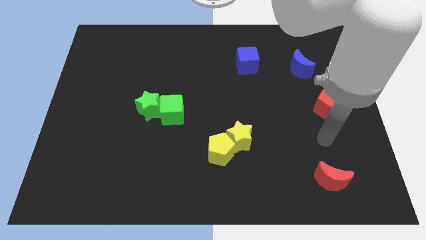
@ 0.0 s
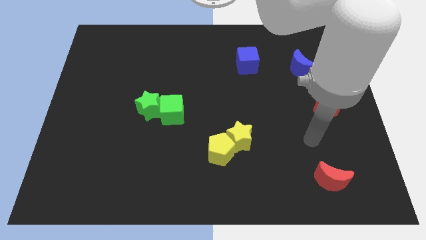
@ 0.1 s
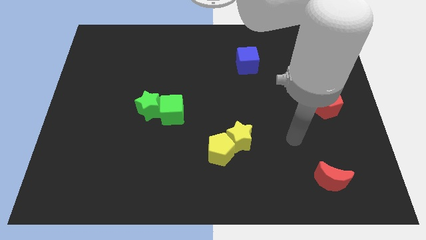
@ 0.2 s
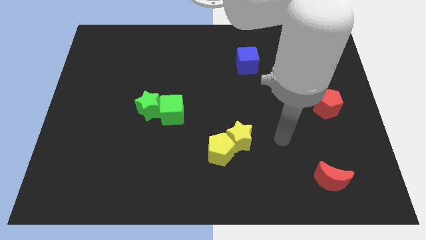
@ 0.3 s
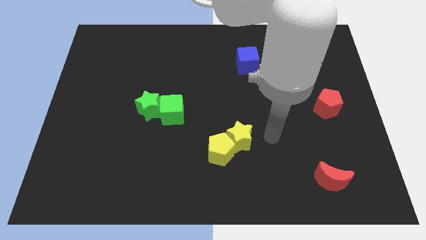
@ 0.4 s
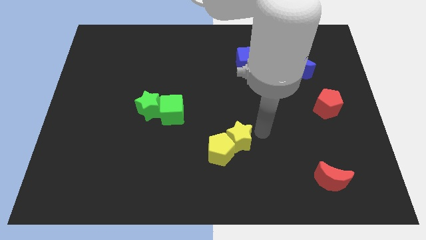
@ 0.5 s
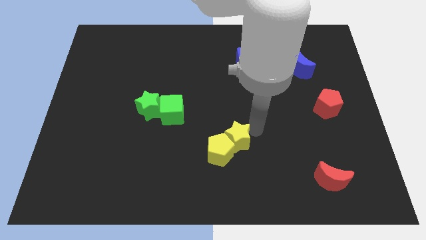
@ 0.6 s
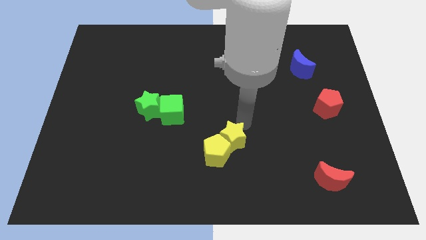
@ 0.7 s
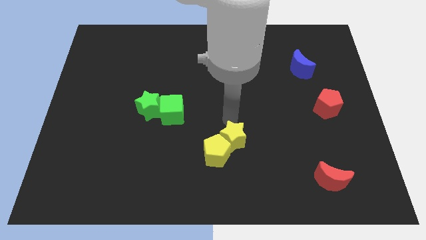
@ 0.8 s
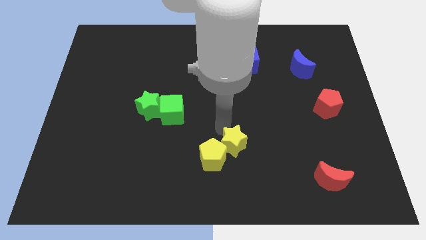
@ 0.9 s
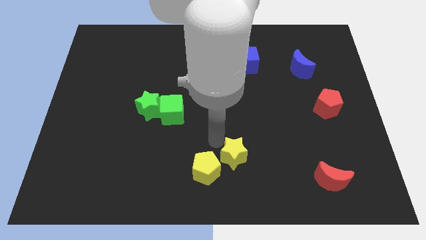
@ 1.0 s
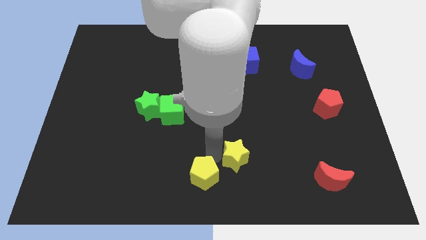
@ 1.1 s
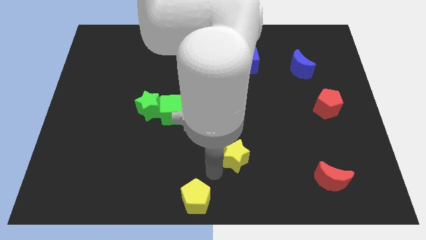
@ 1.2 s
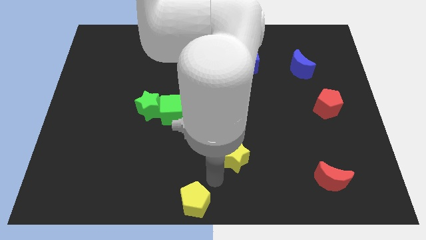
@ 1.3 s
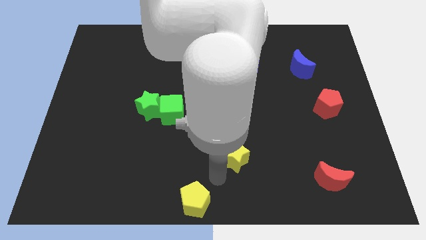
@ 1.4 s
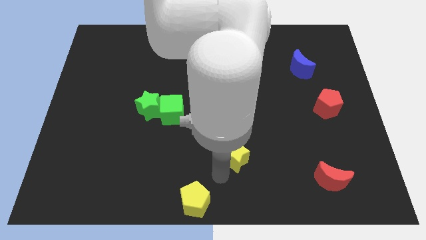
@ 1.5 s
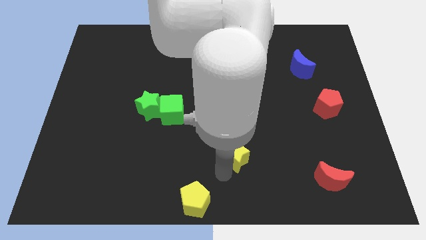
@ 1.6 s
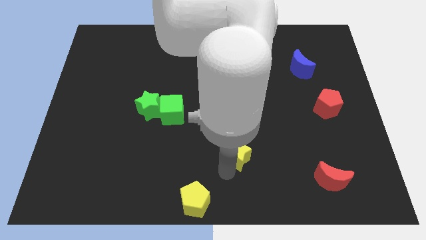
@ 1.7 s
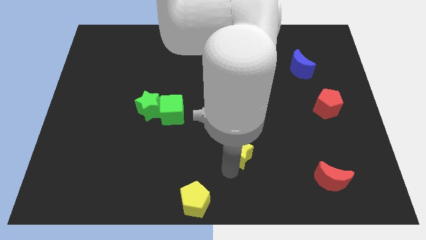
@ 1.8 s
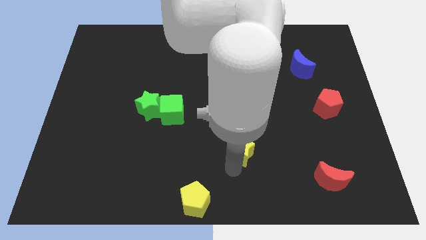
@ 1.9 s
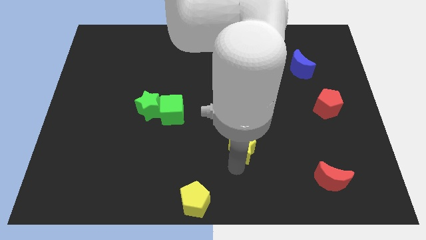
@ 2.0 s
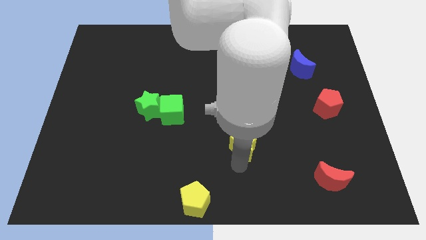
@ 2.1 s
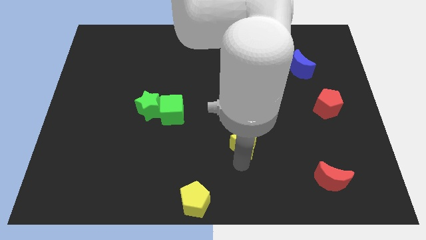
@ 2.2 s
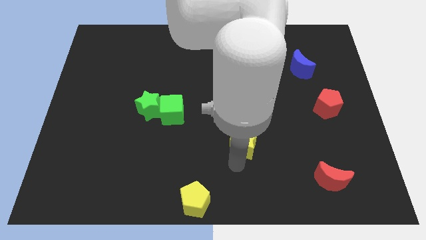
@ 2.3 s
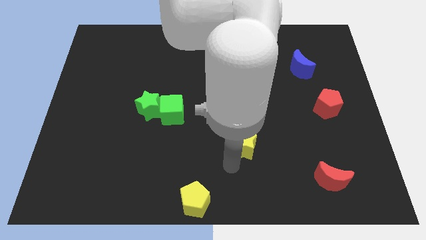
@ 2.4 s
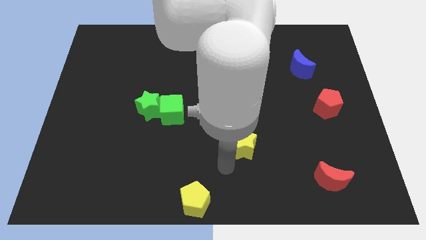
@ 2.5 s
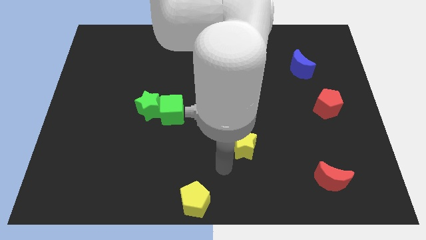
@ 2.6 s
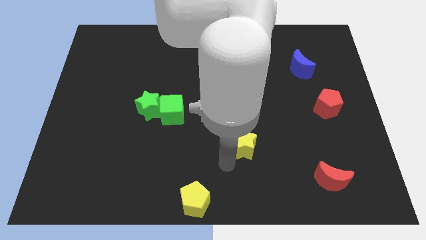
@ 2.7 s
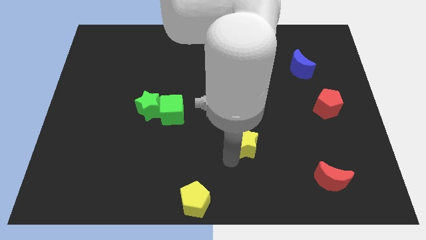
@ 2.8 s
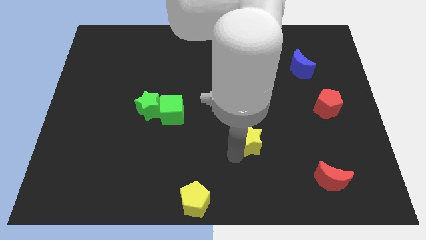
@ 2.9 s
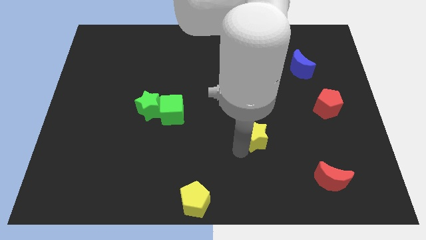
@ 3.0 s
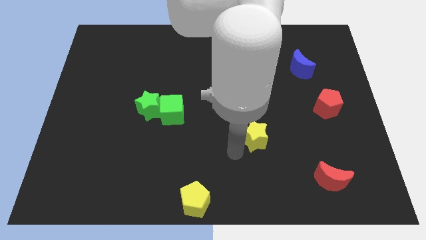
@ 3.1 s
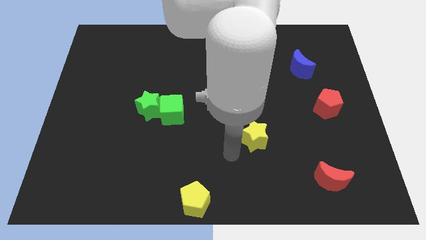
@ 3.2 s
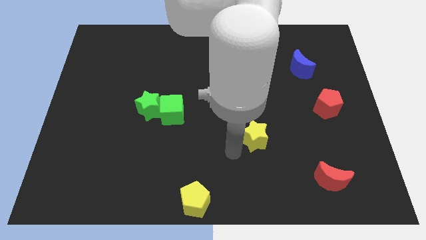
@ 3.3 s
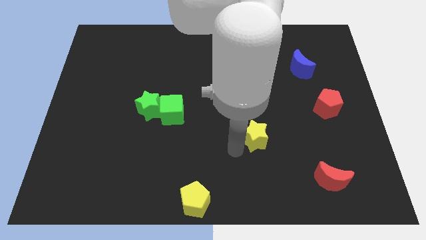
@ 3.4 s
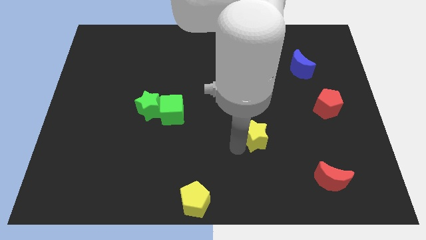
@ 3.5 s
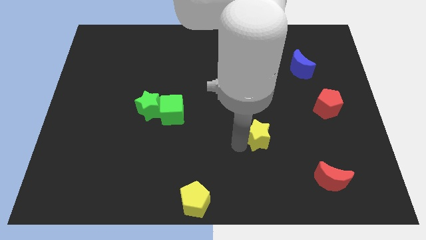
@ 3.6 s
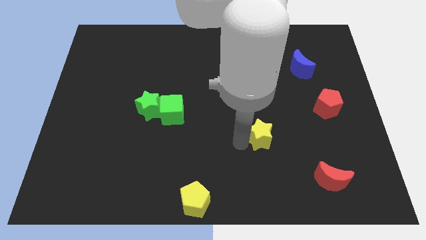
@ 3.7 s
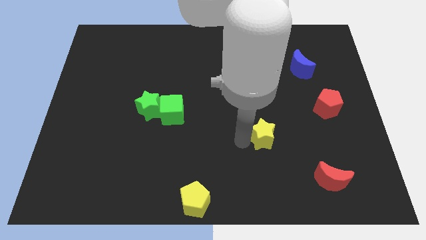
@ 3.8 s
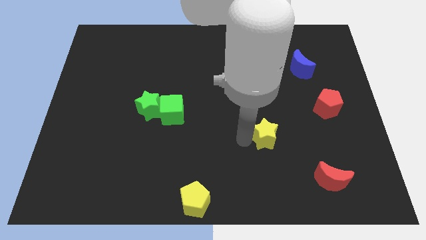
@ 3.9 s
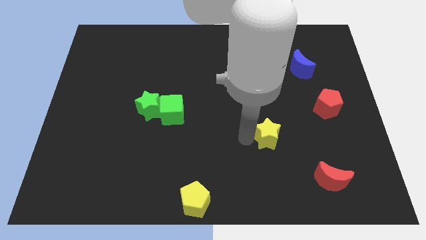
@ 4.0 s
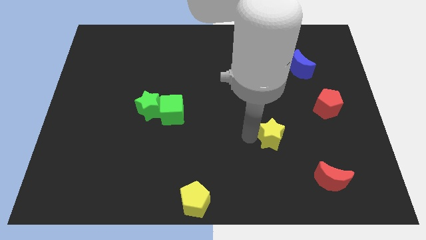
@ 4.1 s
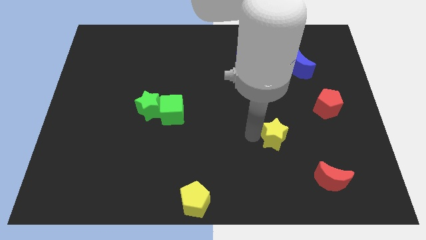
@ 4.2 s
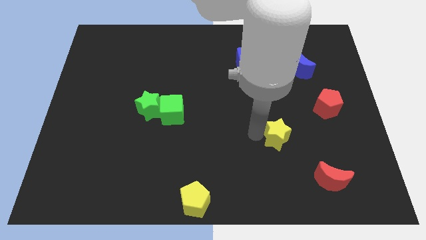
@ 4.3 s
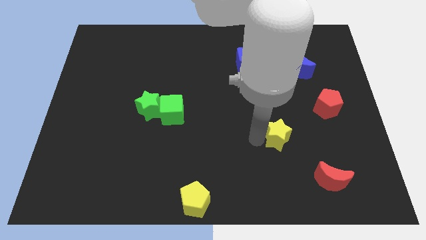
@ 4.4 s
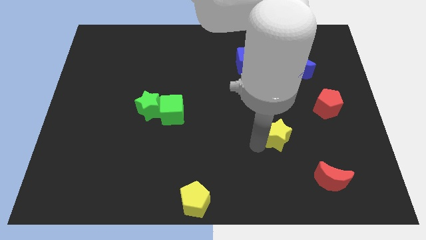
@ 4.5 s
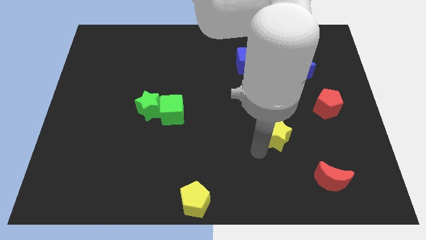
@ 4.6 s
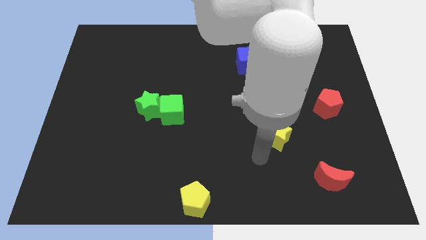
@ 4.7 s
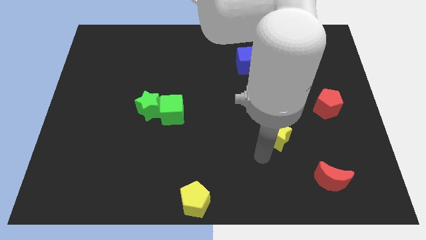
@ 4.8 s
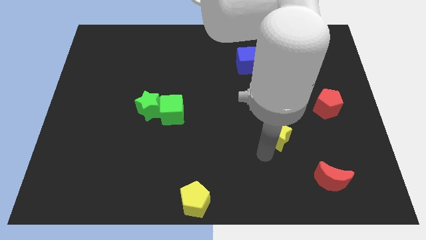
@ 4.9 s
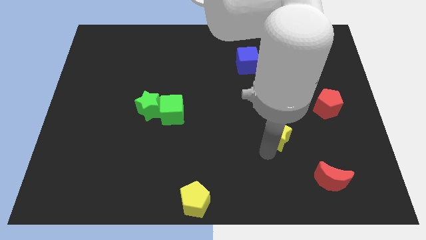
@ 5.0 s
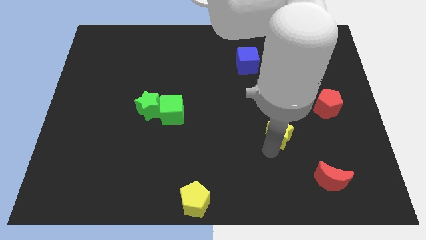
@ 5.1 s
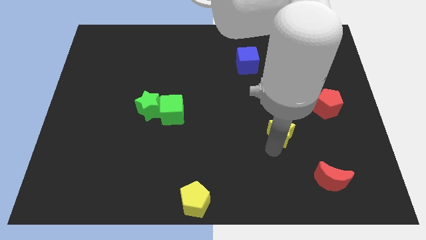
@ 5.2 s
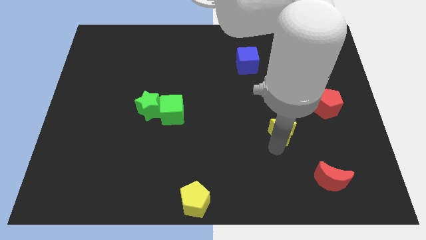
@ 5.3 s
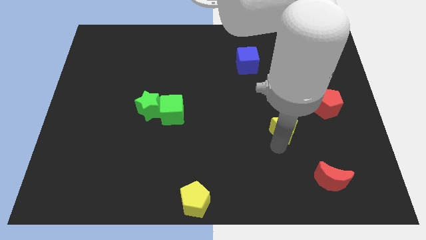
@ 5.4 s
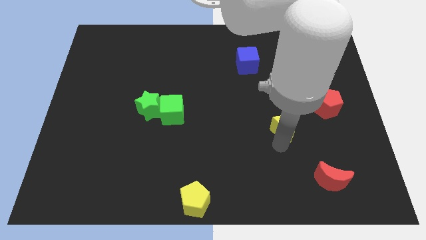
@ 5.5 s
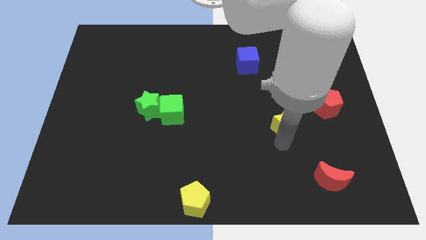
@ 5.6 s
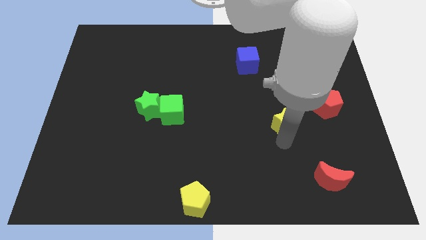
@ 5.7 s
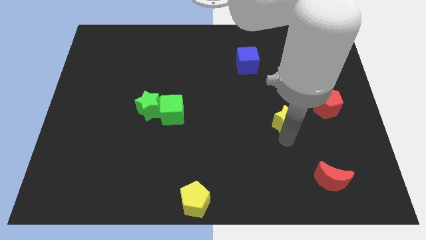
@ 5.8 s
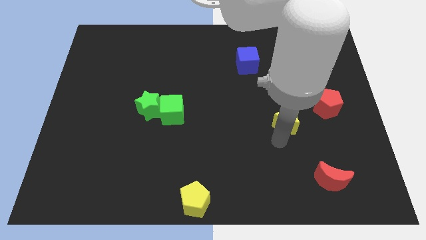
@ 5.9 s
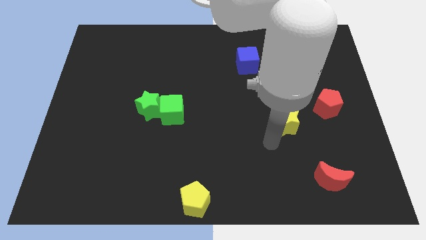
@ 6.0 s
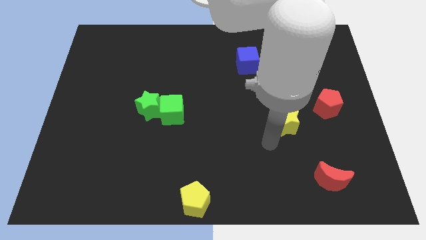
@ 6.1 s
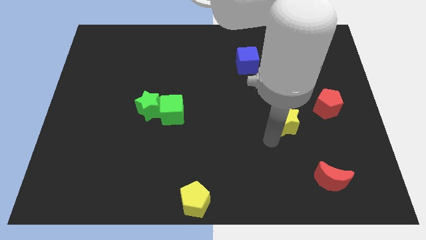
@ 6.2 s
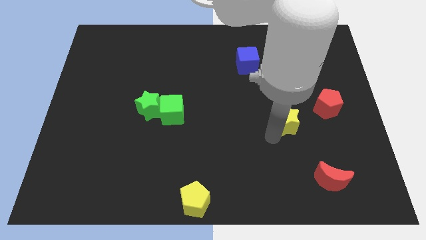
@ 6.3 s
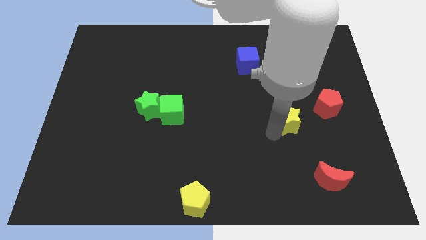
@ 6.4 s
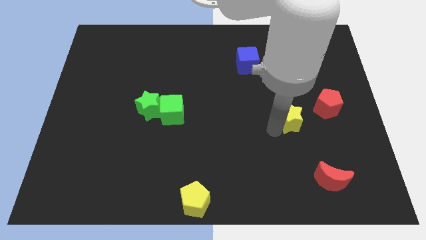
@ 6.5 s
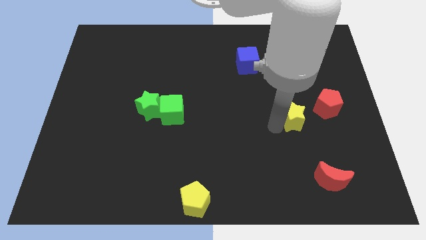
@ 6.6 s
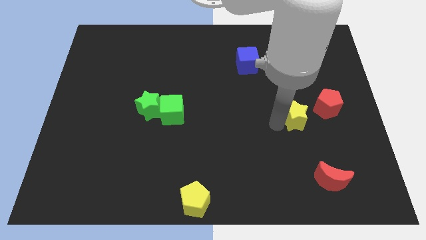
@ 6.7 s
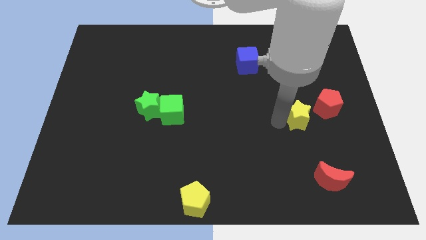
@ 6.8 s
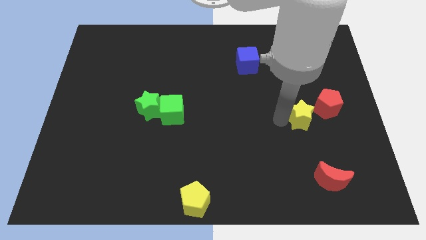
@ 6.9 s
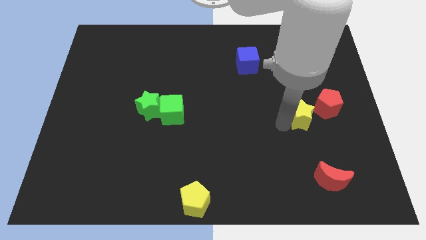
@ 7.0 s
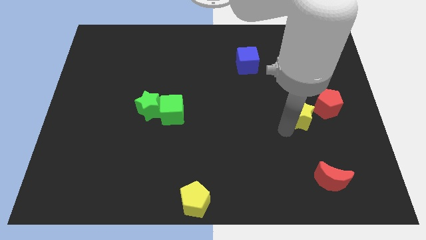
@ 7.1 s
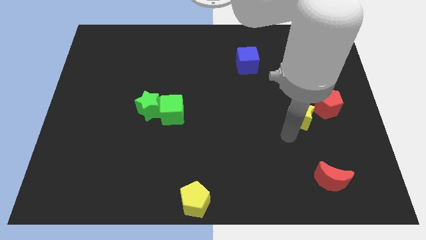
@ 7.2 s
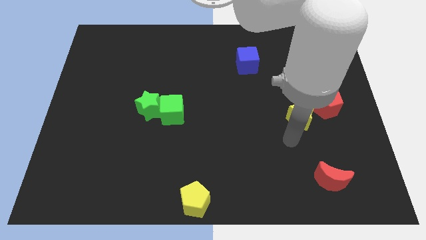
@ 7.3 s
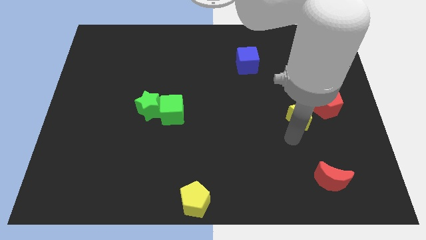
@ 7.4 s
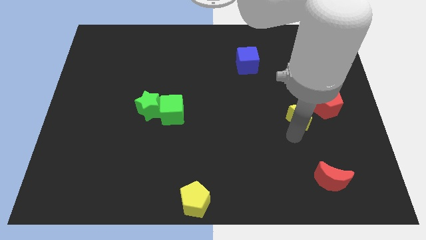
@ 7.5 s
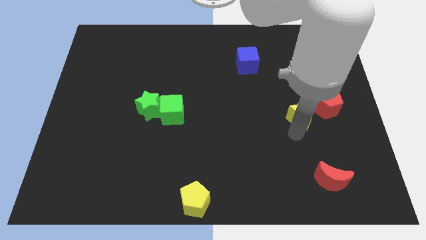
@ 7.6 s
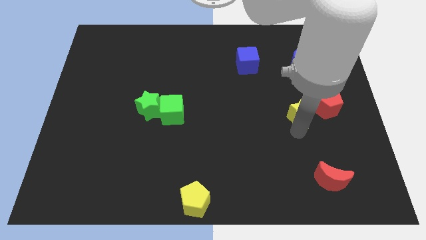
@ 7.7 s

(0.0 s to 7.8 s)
move the yellow star to the bottom side of the blue moon

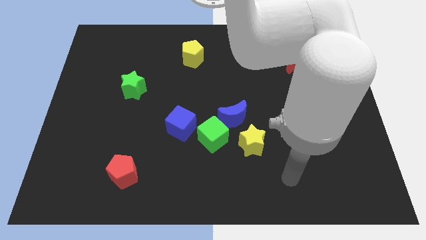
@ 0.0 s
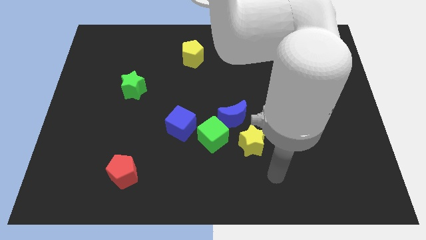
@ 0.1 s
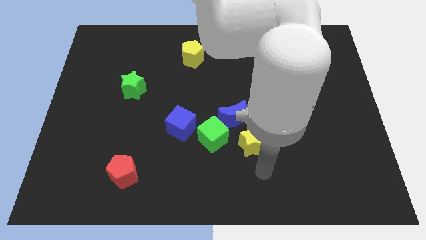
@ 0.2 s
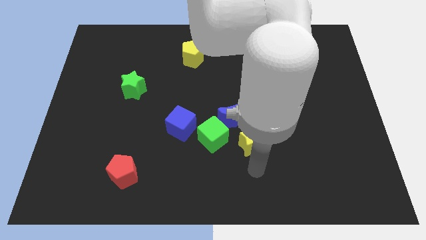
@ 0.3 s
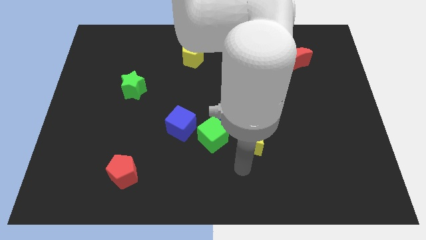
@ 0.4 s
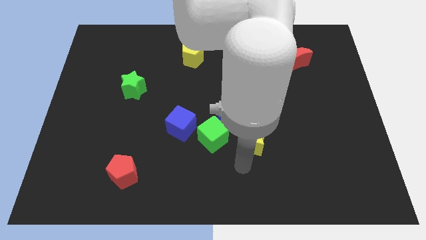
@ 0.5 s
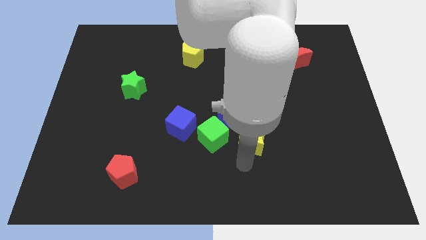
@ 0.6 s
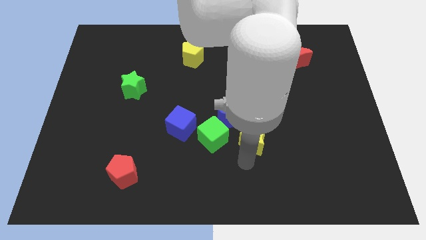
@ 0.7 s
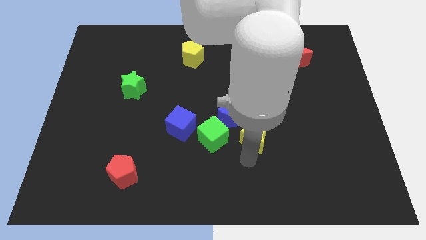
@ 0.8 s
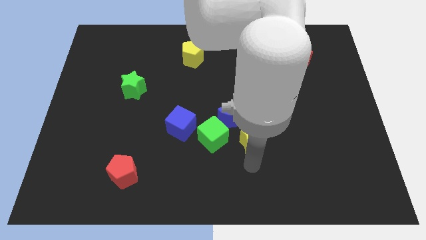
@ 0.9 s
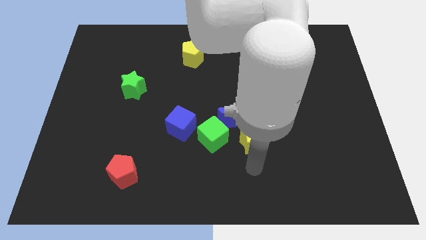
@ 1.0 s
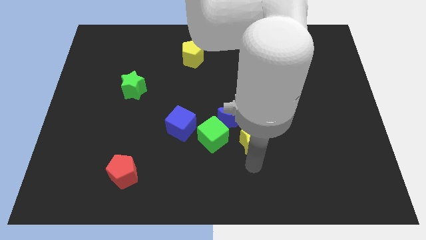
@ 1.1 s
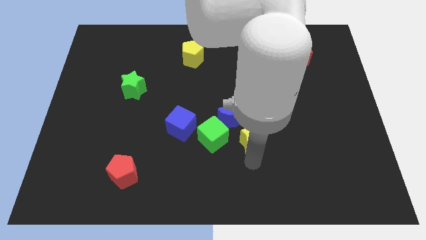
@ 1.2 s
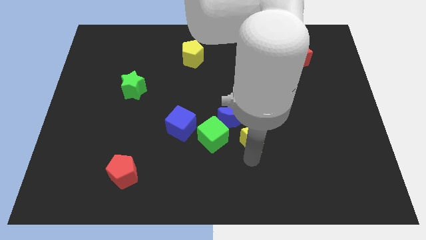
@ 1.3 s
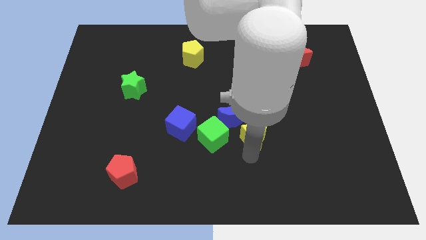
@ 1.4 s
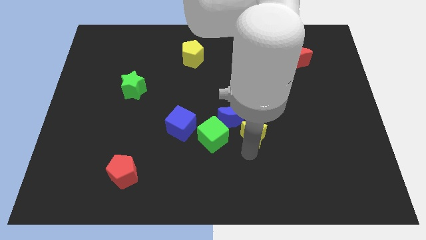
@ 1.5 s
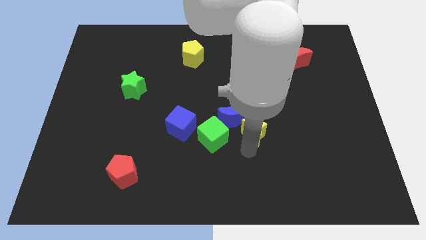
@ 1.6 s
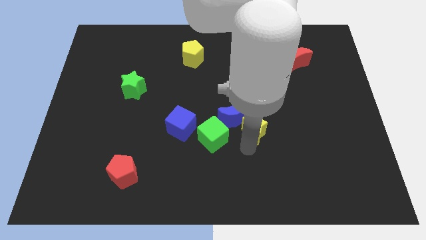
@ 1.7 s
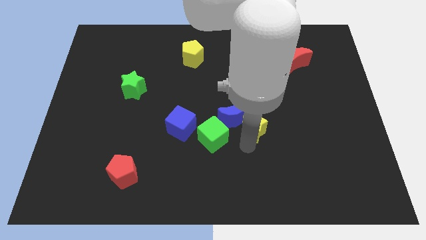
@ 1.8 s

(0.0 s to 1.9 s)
put the yellow star diagonally up and to the right of the green cube
